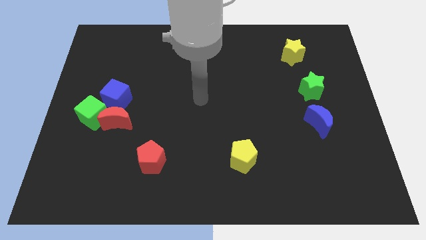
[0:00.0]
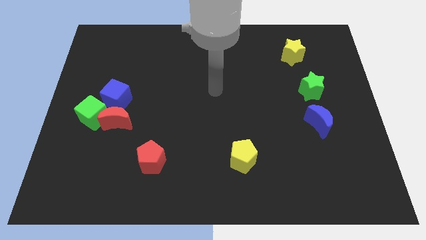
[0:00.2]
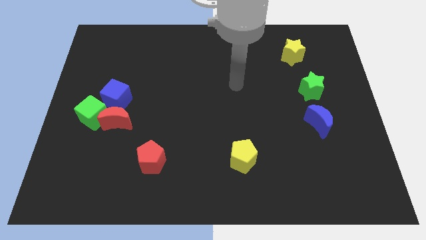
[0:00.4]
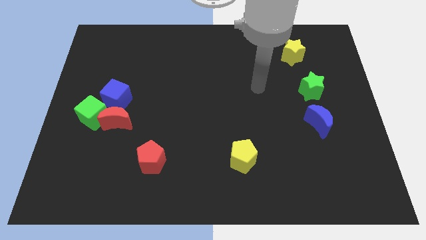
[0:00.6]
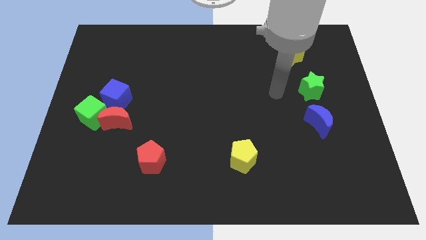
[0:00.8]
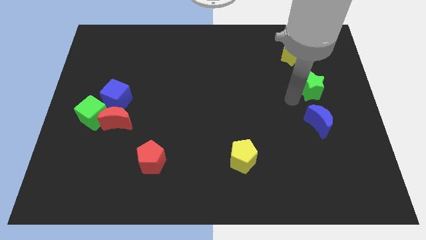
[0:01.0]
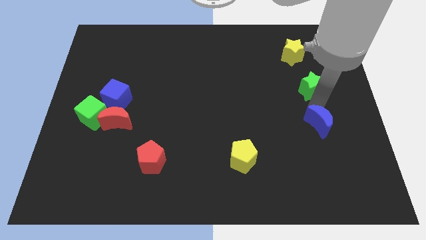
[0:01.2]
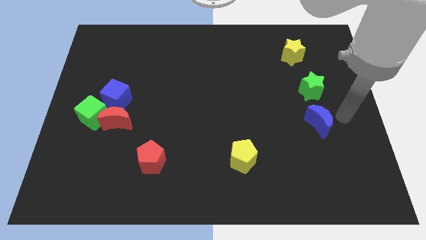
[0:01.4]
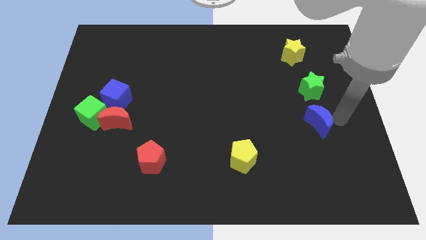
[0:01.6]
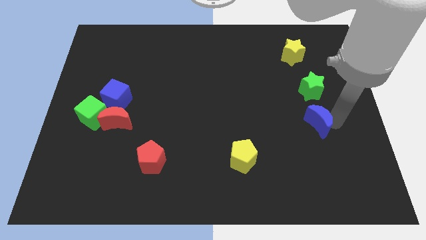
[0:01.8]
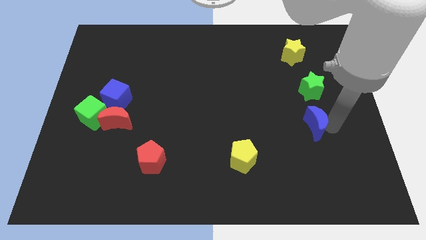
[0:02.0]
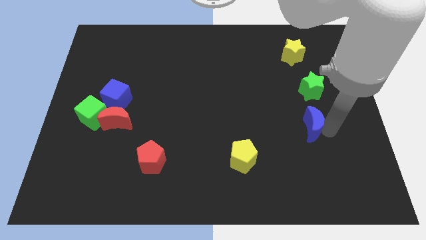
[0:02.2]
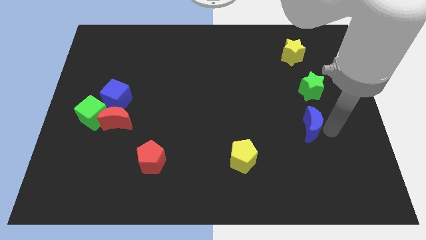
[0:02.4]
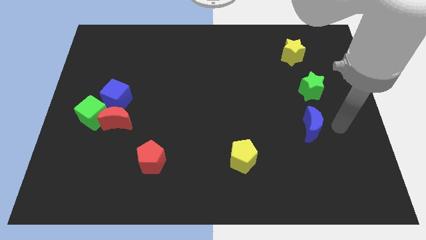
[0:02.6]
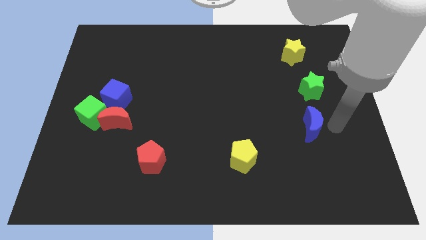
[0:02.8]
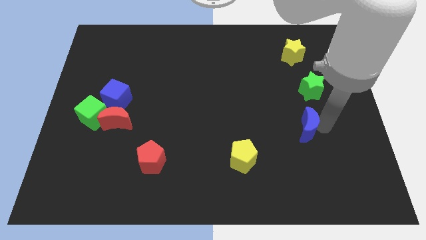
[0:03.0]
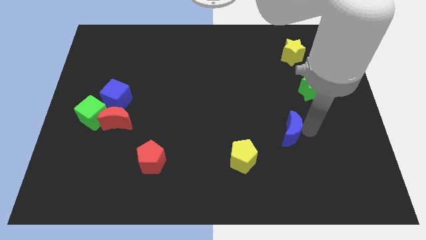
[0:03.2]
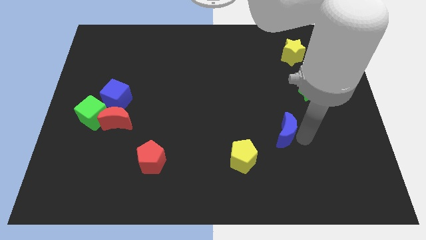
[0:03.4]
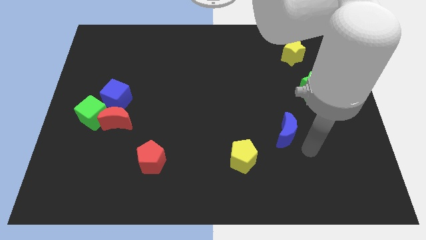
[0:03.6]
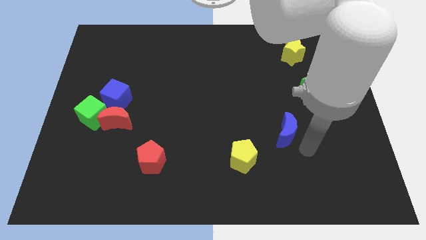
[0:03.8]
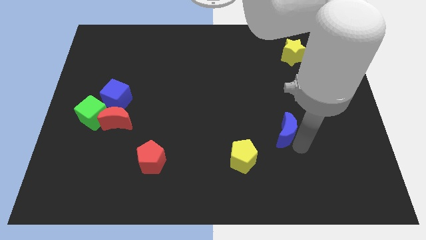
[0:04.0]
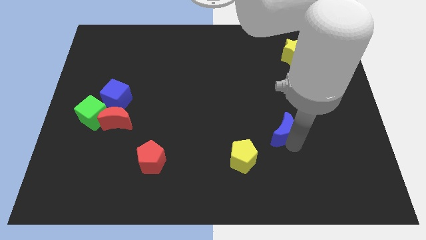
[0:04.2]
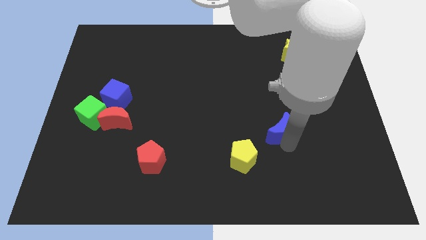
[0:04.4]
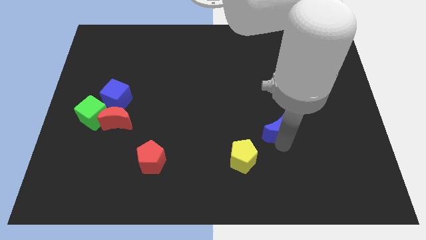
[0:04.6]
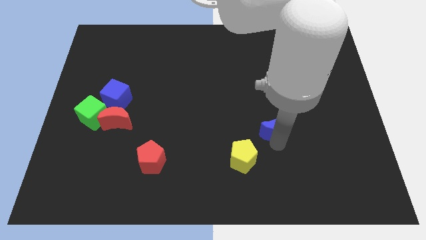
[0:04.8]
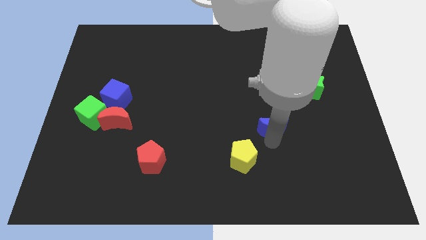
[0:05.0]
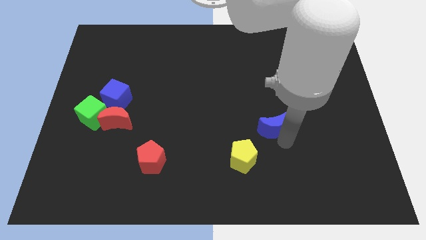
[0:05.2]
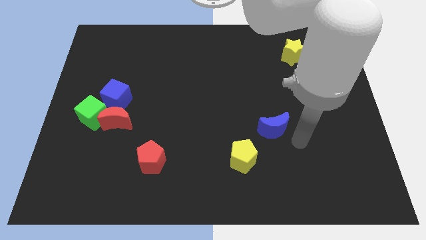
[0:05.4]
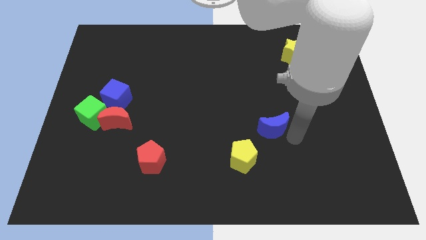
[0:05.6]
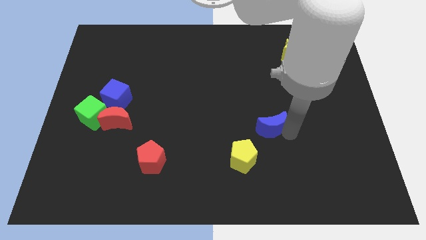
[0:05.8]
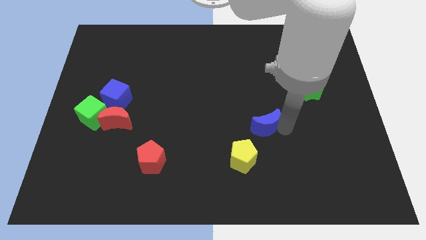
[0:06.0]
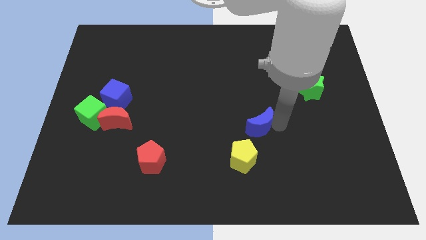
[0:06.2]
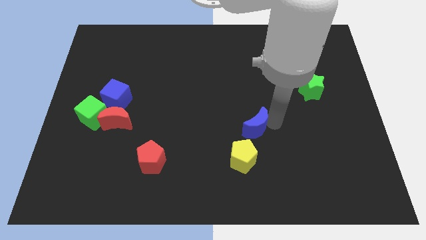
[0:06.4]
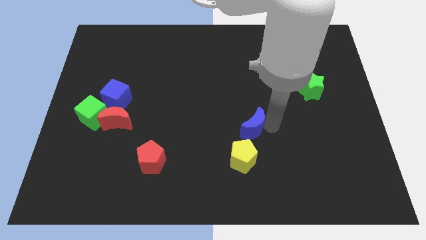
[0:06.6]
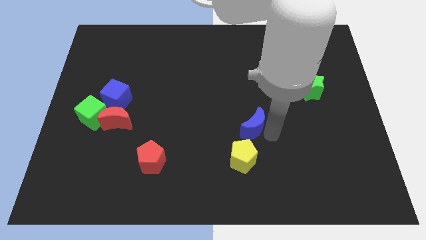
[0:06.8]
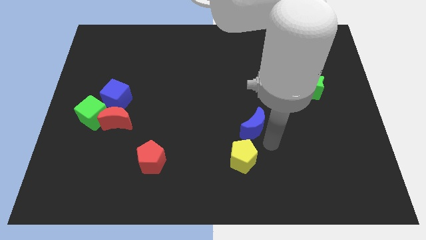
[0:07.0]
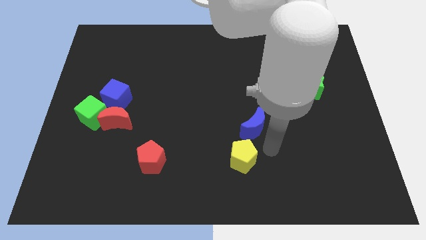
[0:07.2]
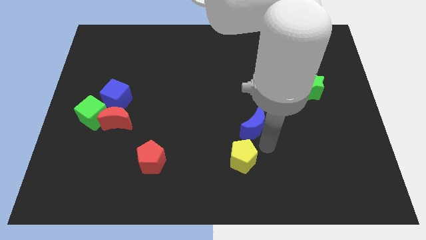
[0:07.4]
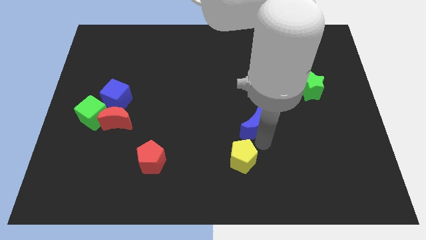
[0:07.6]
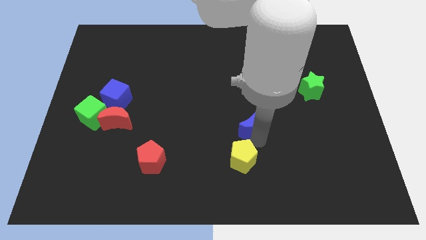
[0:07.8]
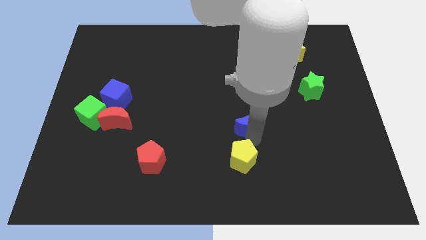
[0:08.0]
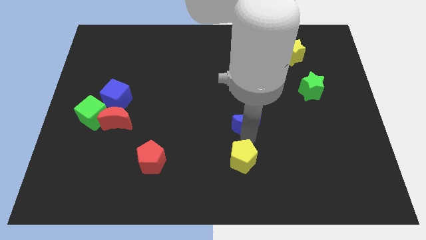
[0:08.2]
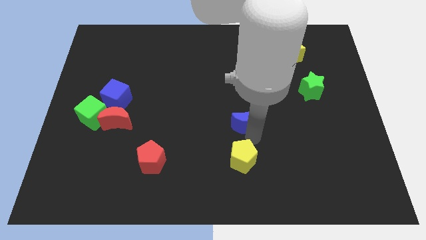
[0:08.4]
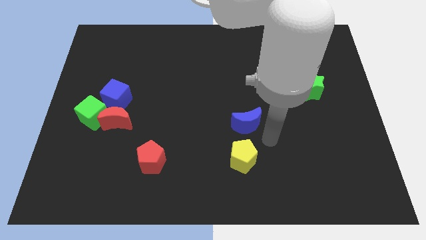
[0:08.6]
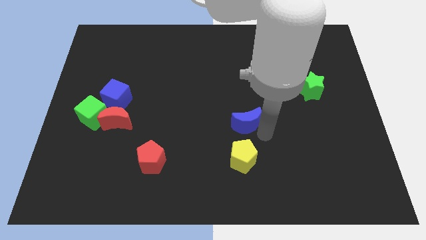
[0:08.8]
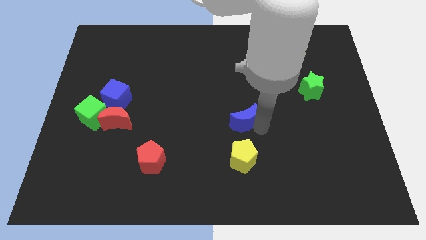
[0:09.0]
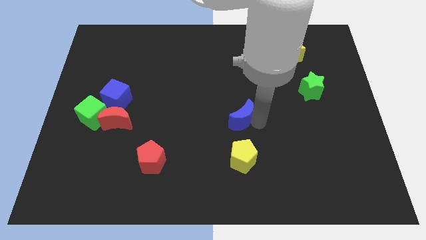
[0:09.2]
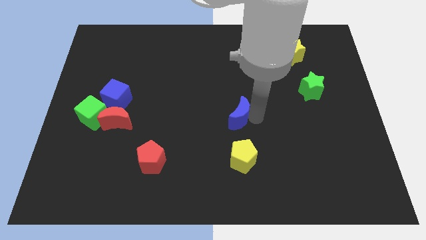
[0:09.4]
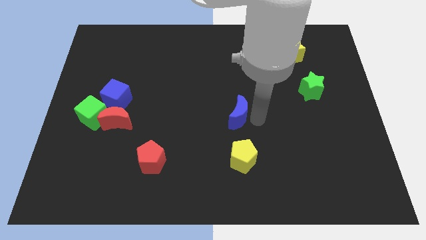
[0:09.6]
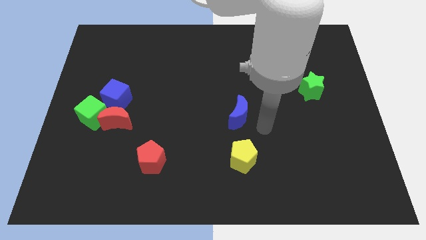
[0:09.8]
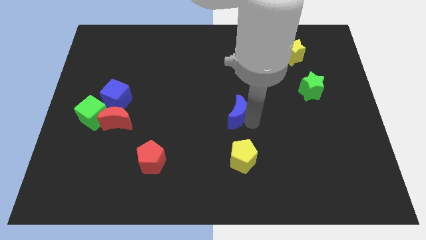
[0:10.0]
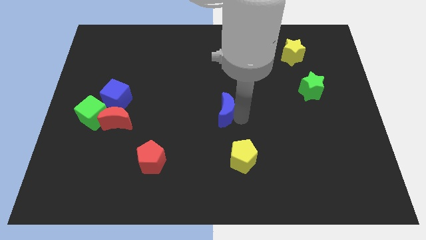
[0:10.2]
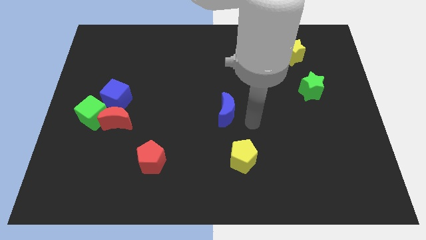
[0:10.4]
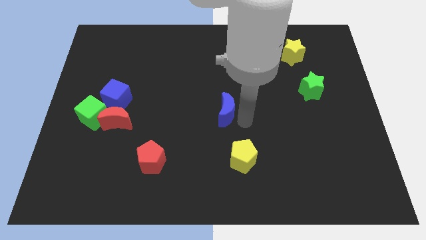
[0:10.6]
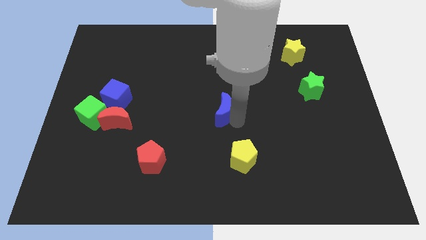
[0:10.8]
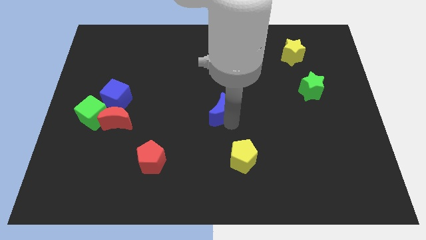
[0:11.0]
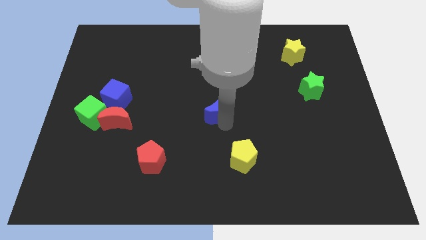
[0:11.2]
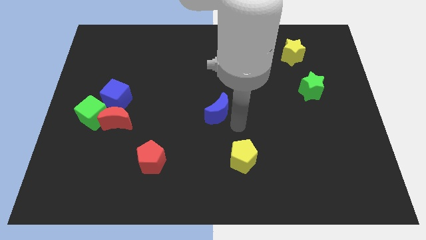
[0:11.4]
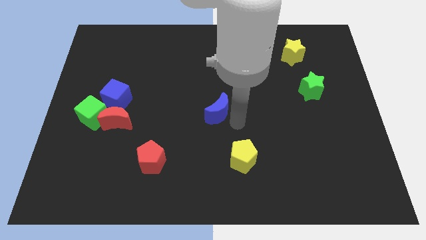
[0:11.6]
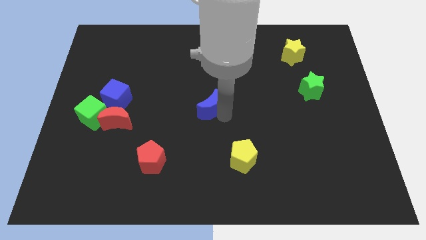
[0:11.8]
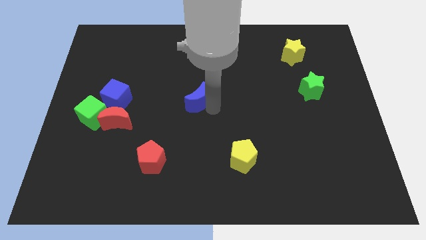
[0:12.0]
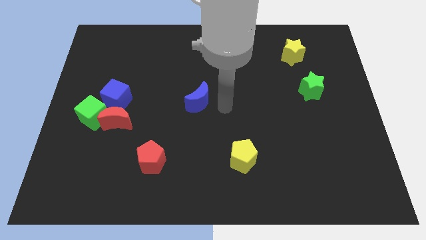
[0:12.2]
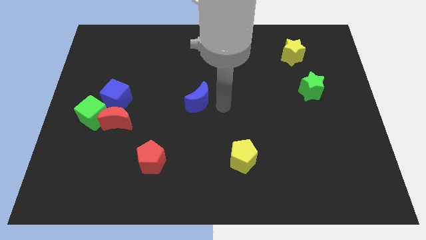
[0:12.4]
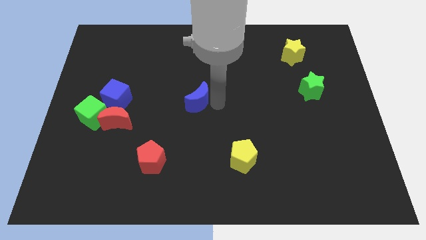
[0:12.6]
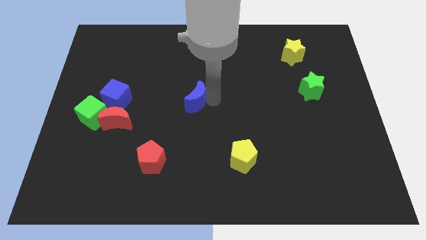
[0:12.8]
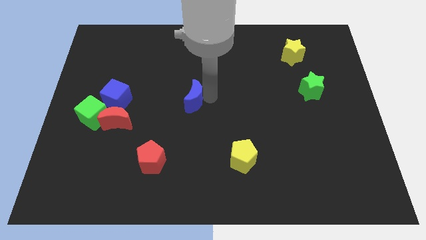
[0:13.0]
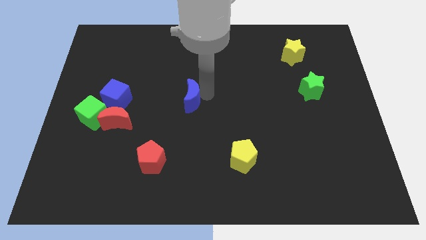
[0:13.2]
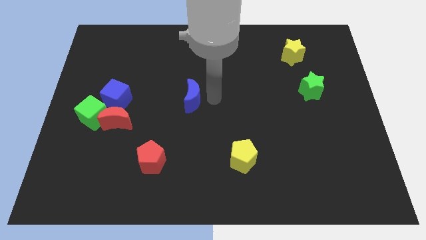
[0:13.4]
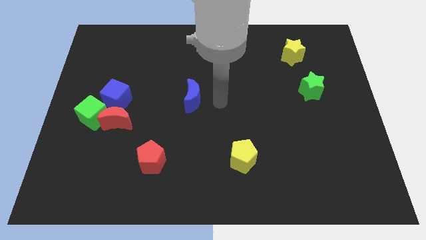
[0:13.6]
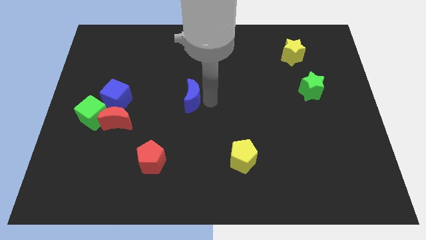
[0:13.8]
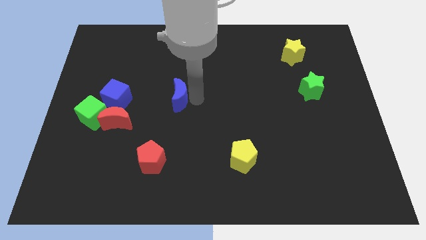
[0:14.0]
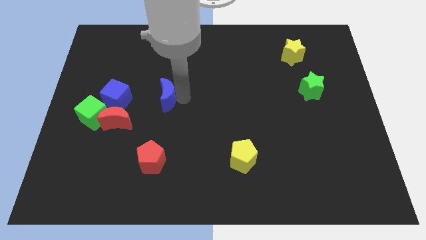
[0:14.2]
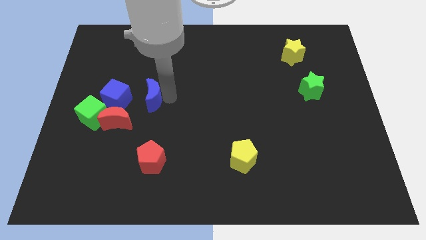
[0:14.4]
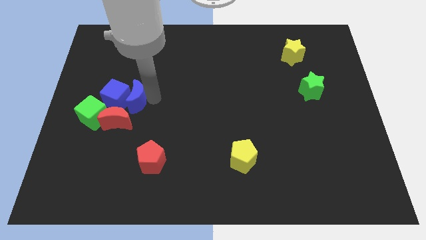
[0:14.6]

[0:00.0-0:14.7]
slide the blue moon next to the blue cube
